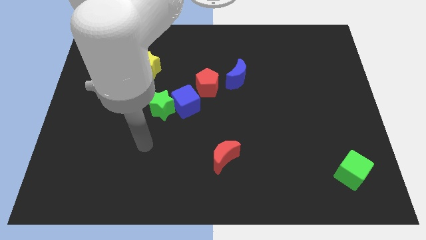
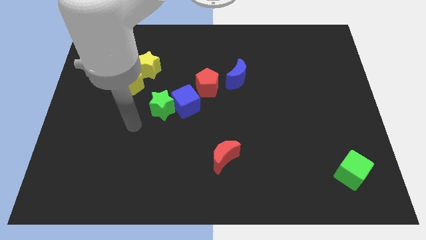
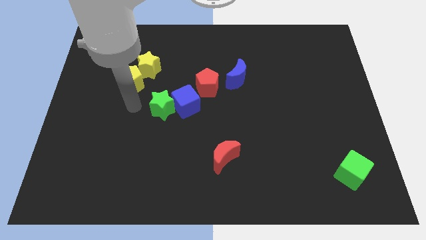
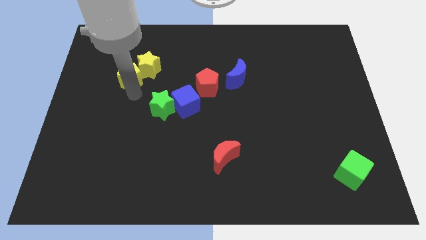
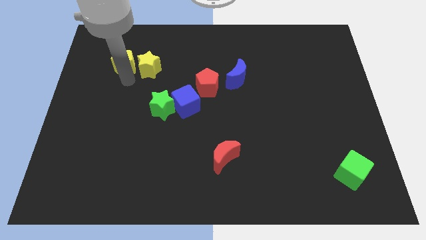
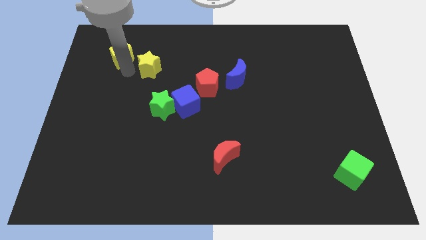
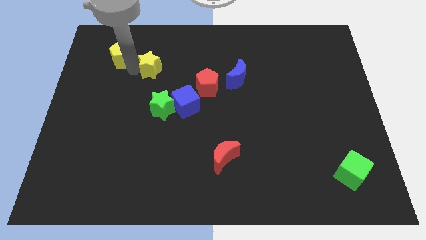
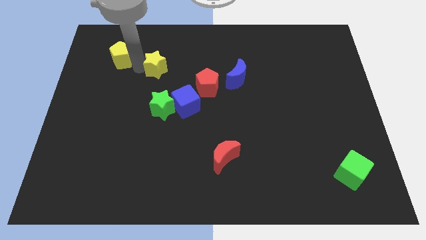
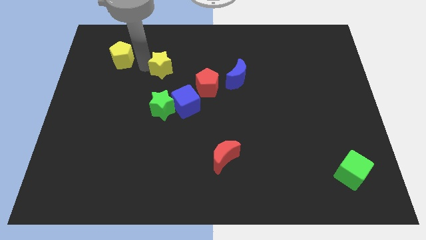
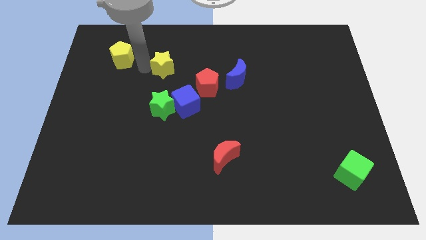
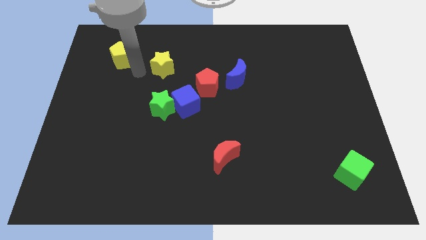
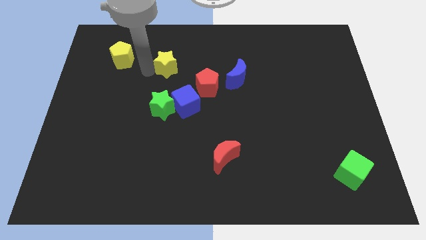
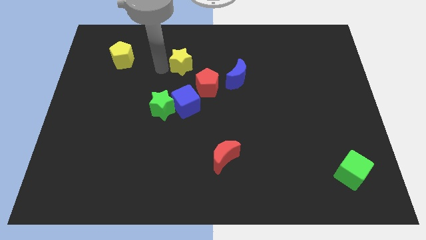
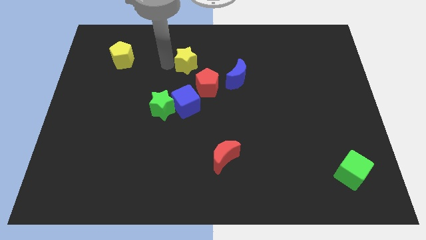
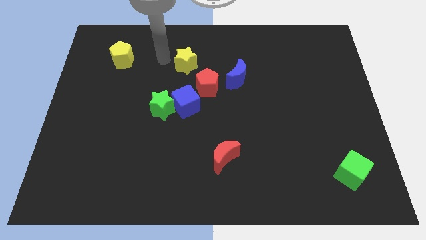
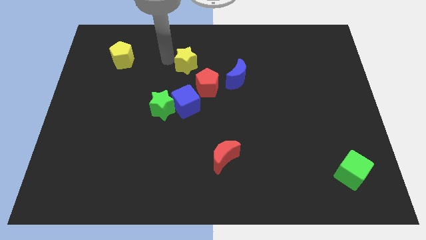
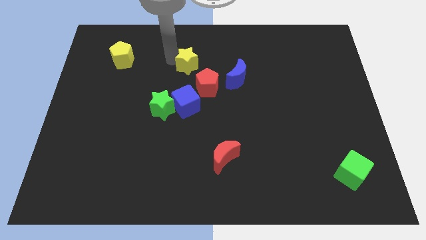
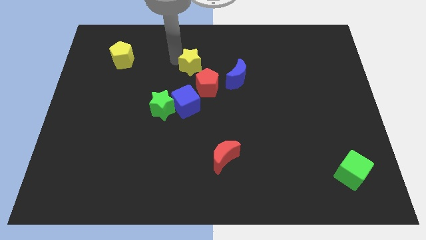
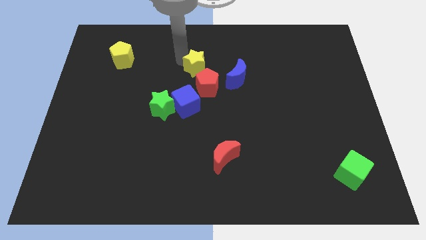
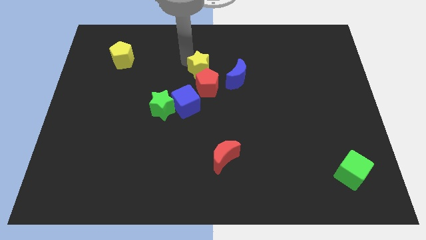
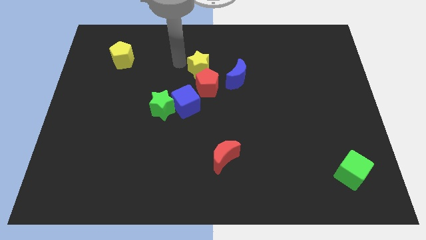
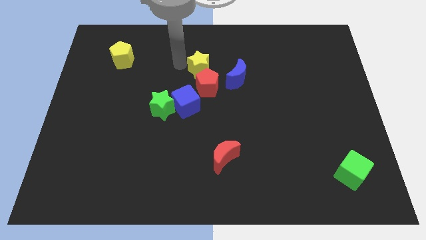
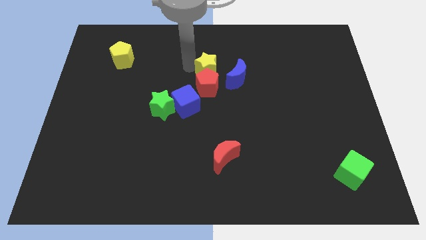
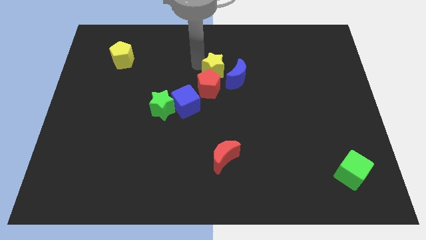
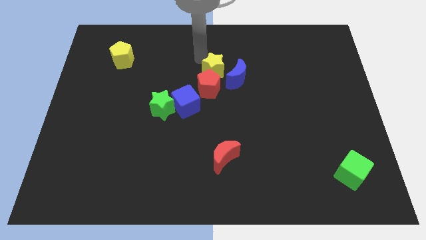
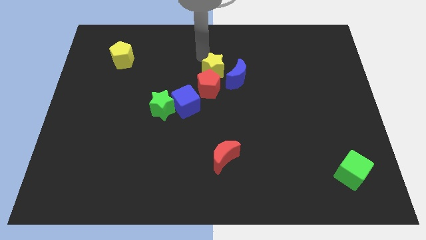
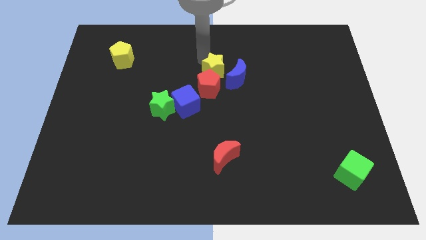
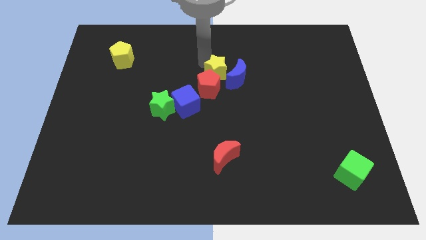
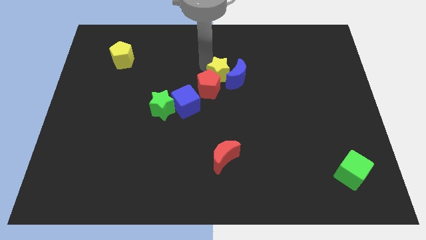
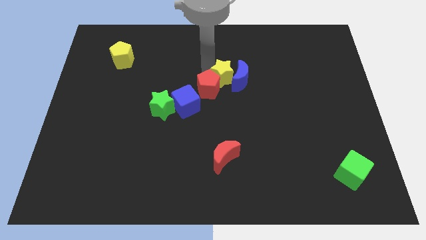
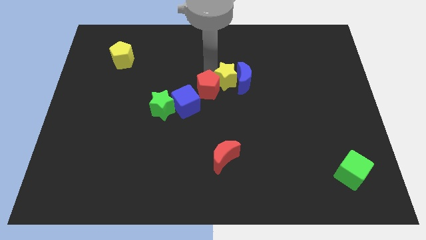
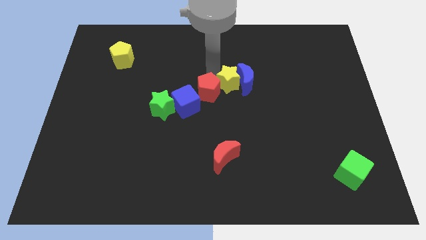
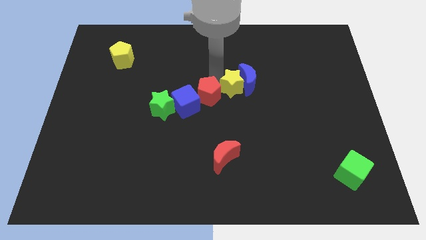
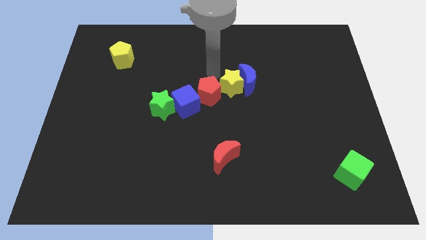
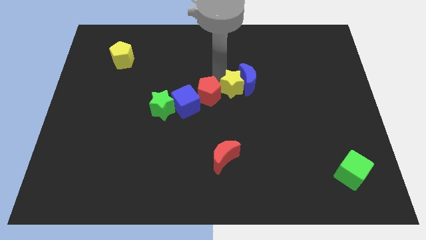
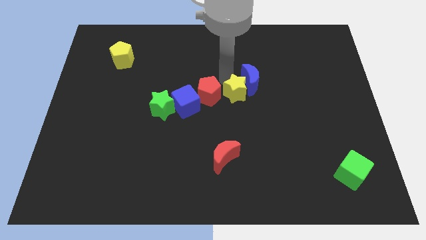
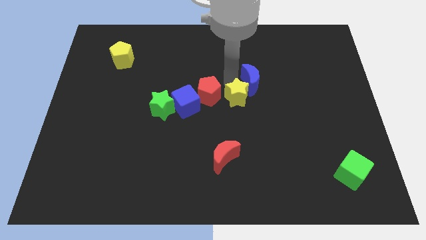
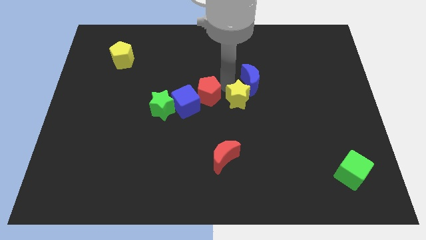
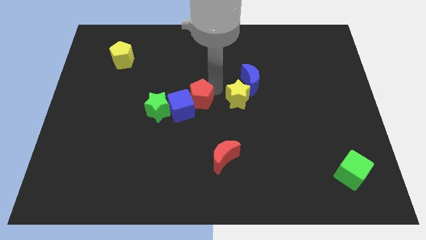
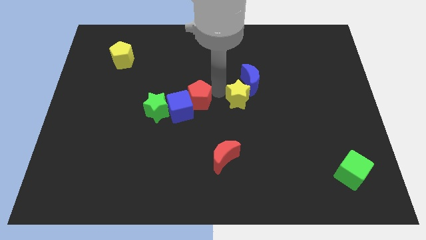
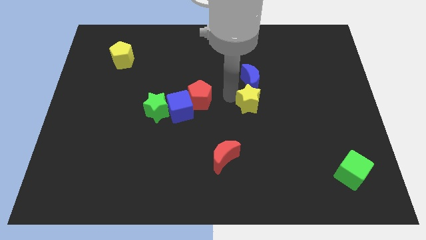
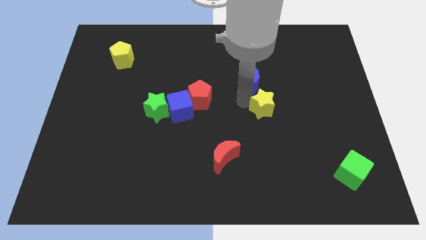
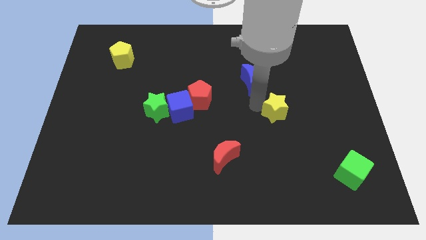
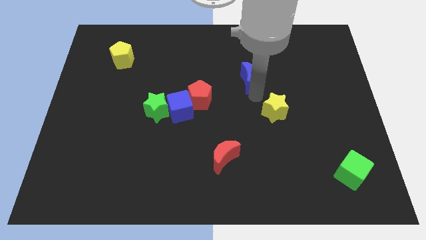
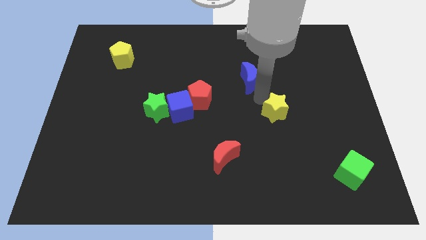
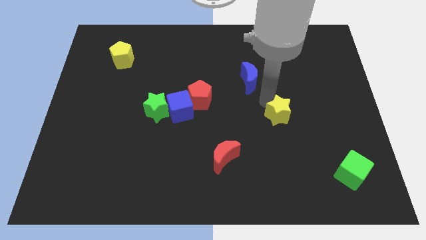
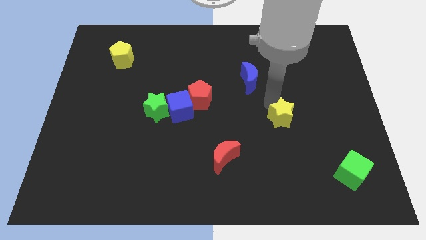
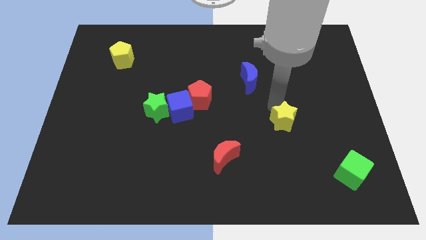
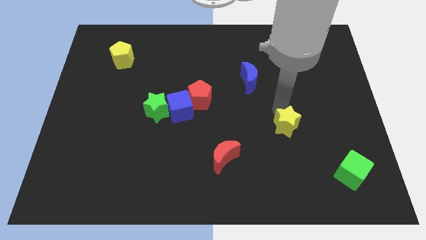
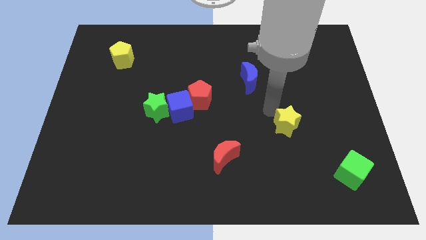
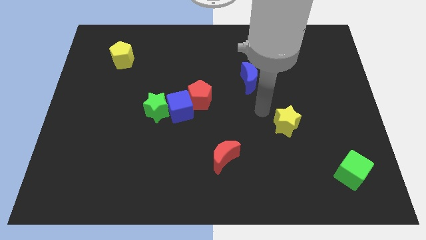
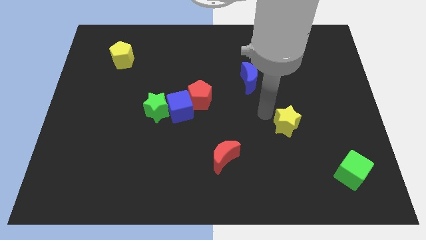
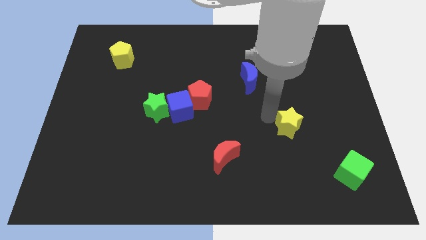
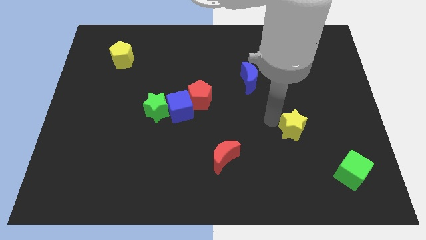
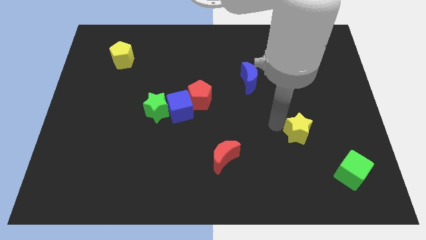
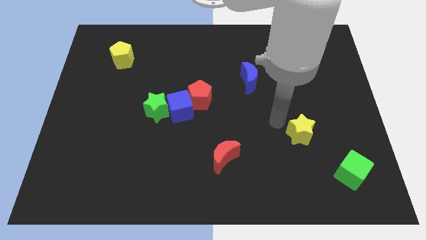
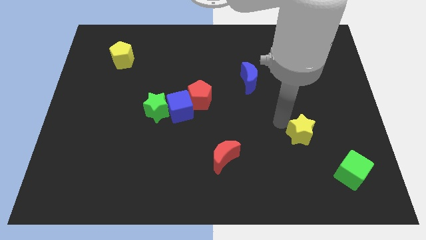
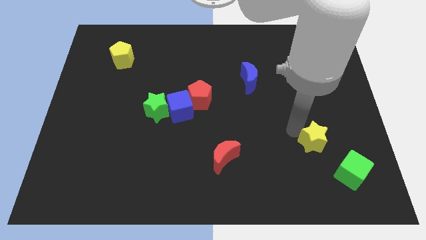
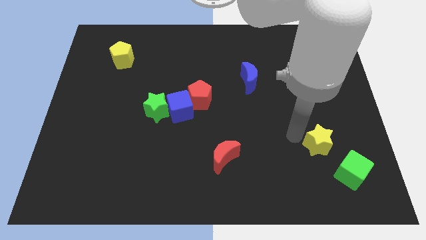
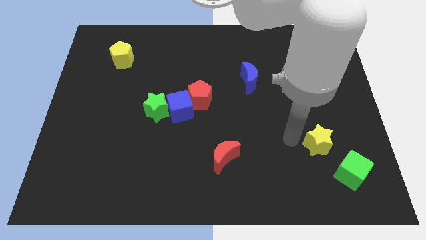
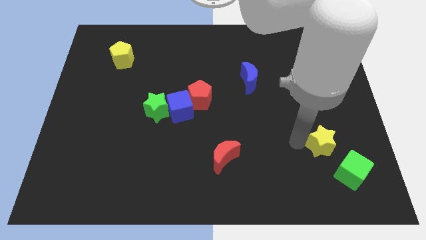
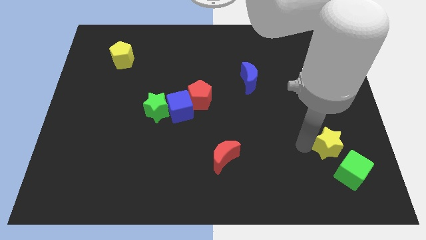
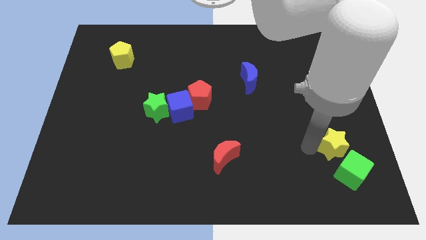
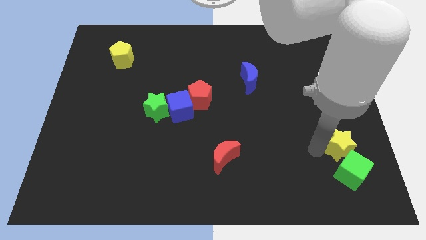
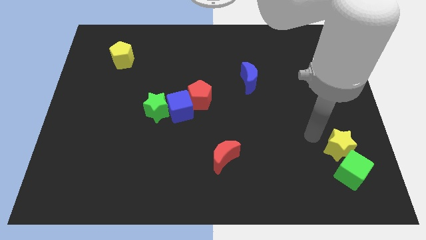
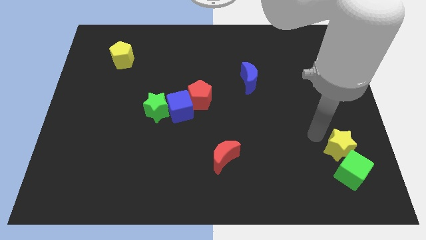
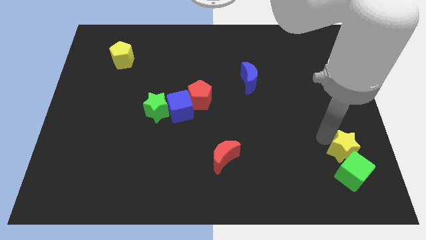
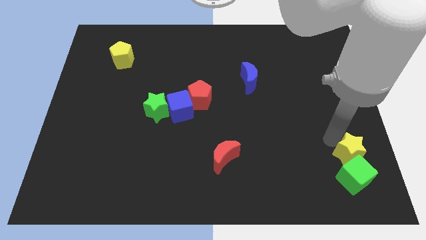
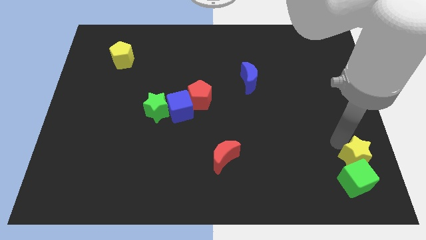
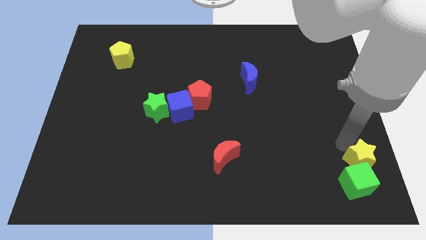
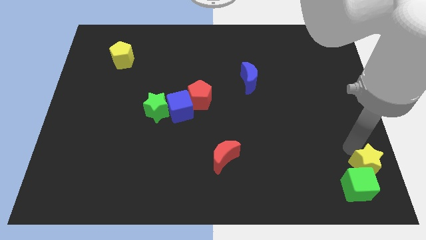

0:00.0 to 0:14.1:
move the yellow star to the bottom right corner
